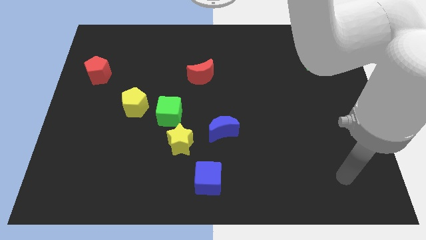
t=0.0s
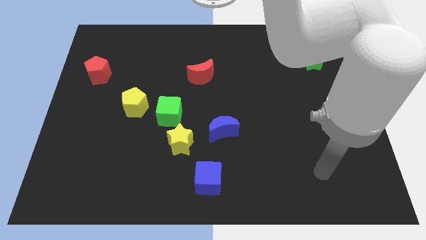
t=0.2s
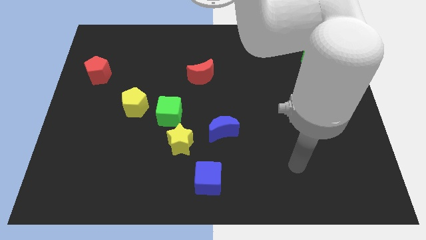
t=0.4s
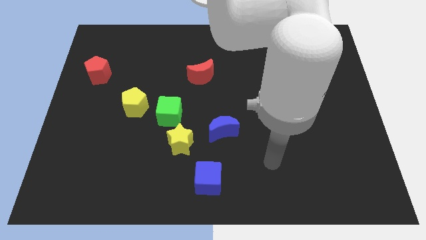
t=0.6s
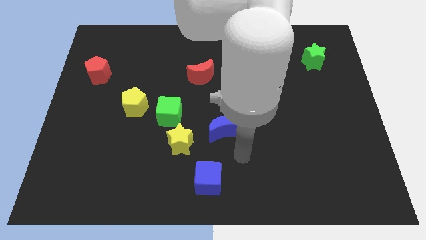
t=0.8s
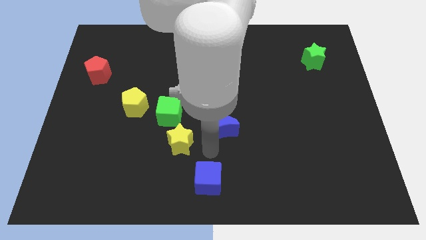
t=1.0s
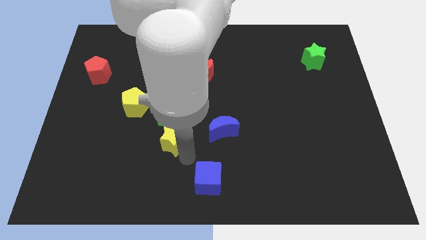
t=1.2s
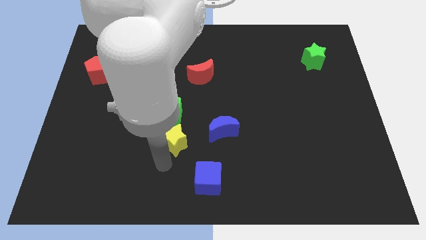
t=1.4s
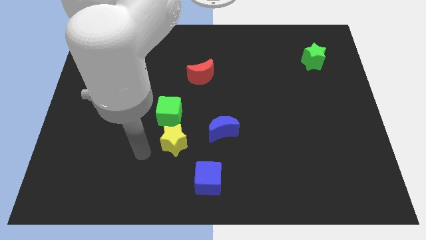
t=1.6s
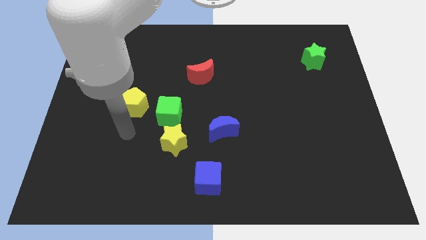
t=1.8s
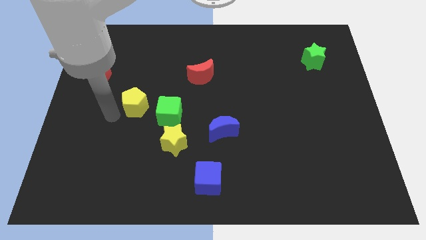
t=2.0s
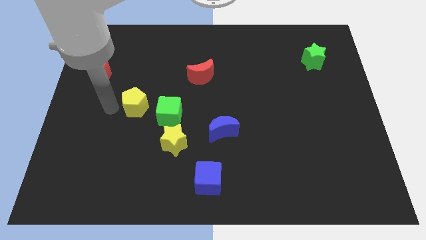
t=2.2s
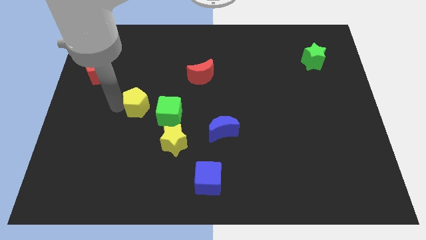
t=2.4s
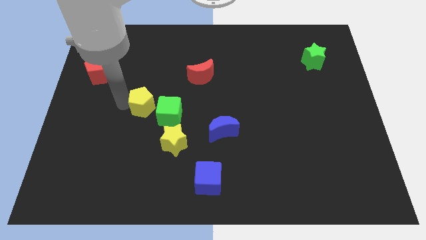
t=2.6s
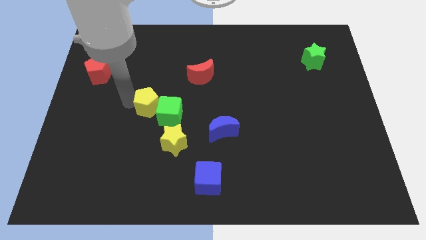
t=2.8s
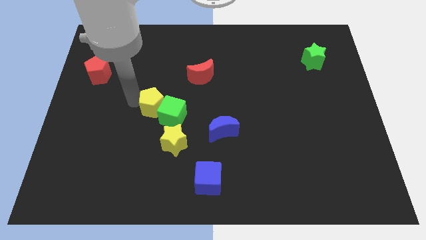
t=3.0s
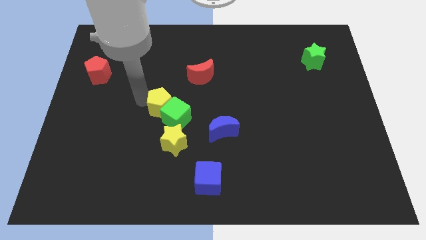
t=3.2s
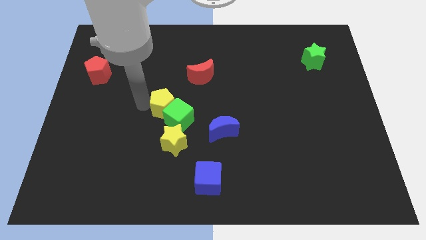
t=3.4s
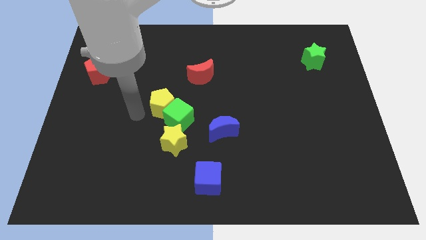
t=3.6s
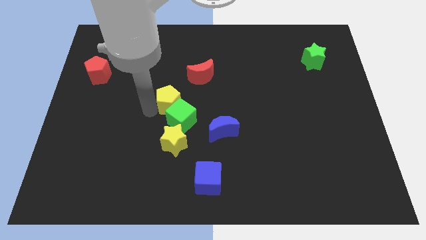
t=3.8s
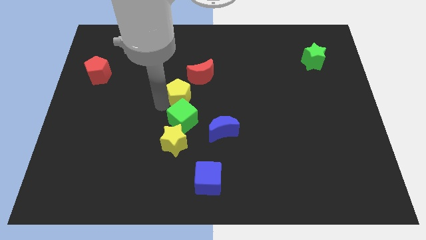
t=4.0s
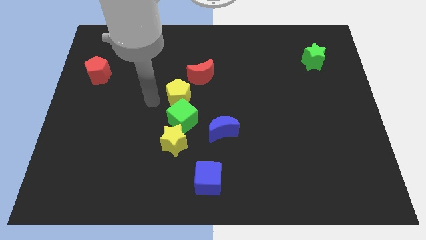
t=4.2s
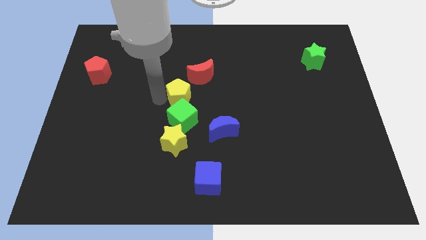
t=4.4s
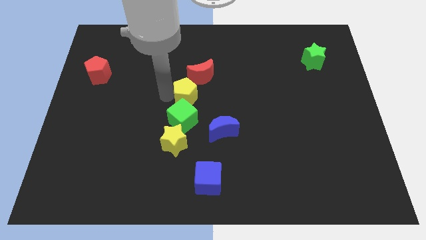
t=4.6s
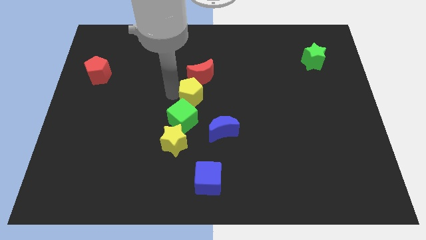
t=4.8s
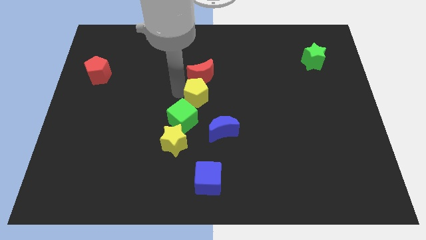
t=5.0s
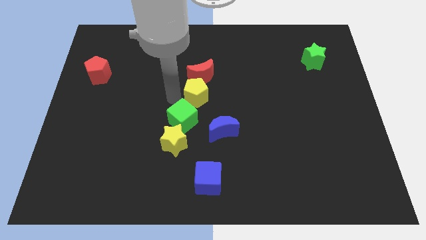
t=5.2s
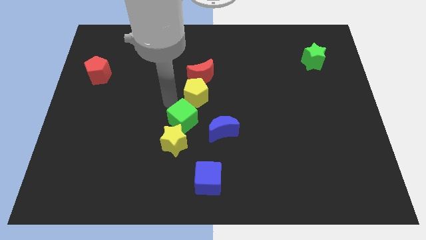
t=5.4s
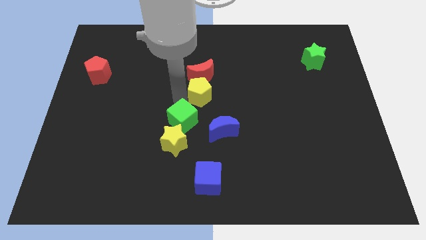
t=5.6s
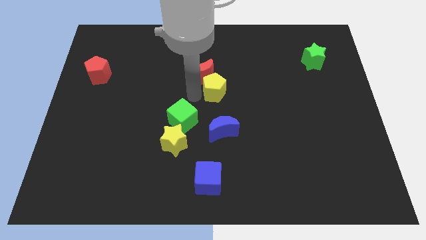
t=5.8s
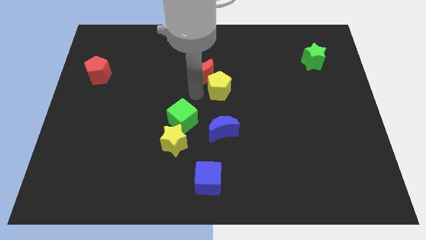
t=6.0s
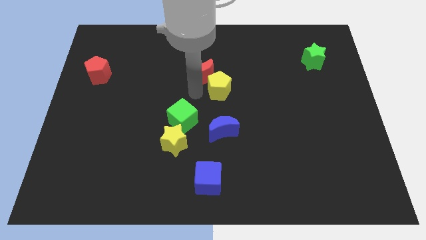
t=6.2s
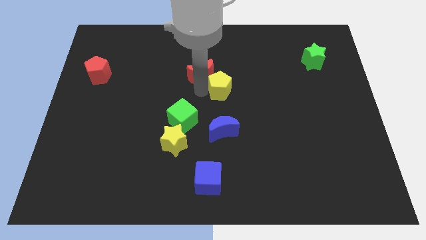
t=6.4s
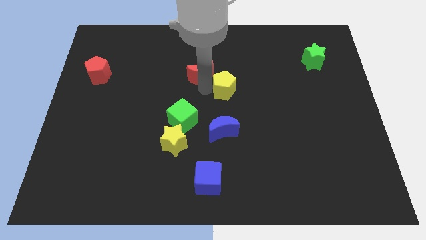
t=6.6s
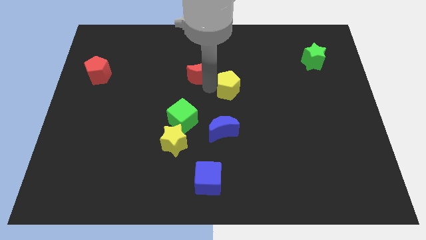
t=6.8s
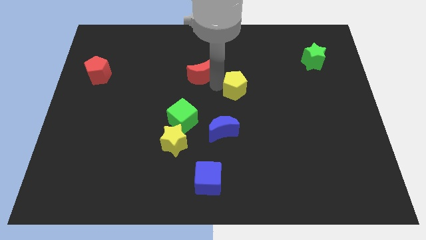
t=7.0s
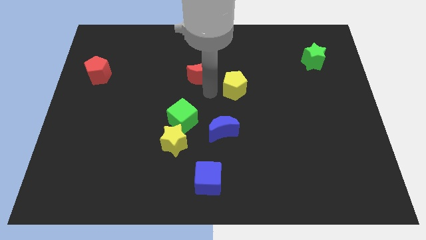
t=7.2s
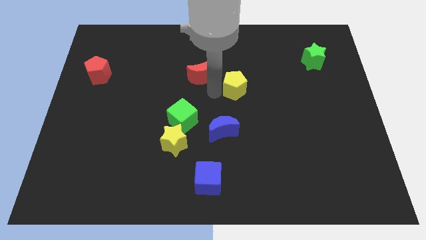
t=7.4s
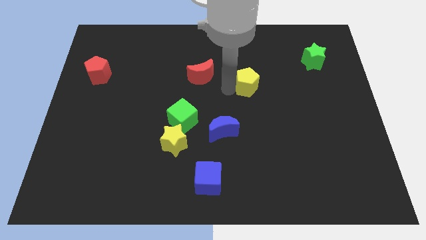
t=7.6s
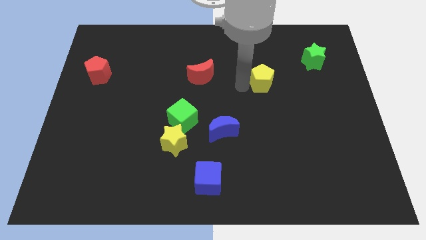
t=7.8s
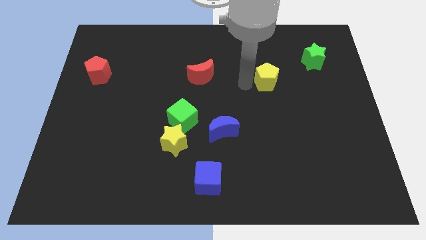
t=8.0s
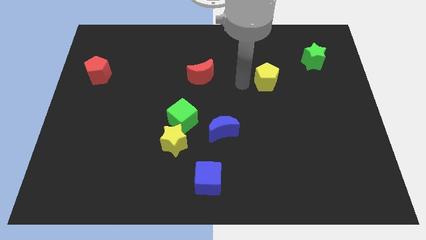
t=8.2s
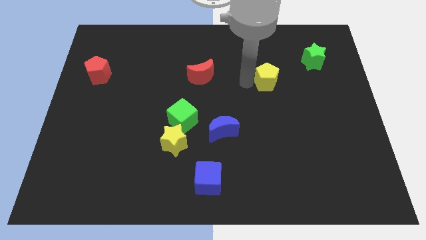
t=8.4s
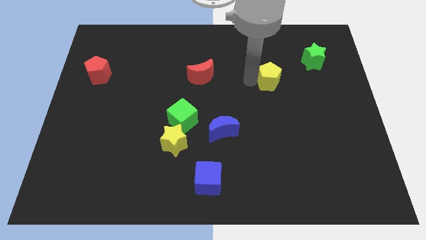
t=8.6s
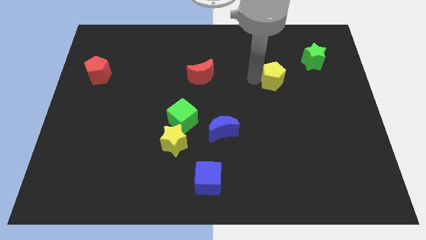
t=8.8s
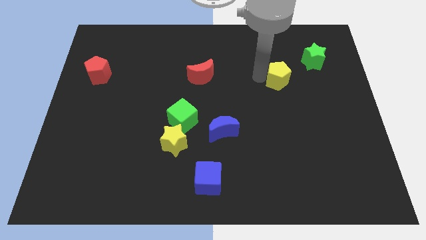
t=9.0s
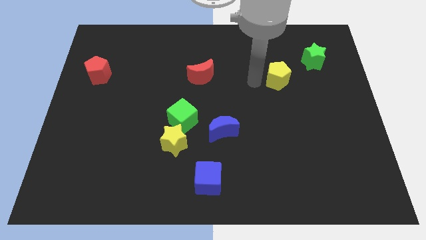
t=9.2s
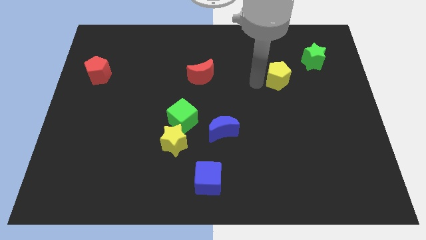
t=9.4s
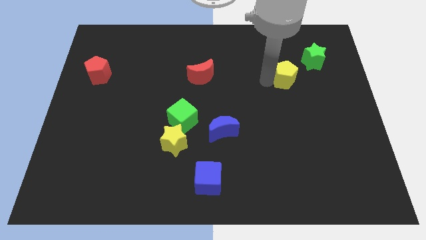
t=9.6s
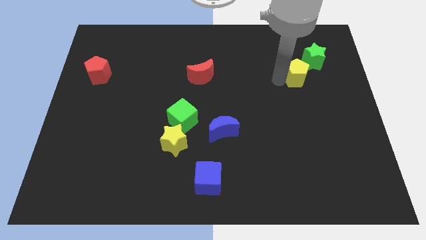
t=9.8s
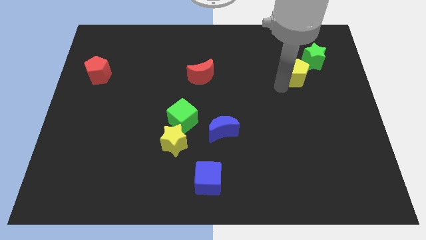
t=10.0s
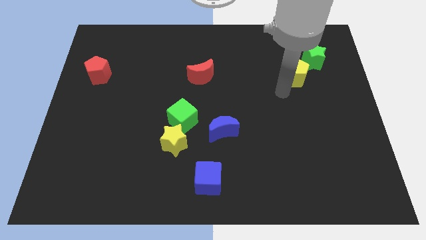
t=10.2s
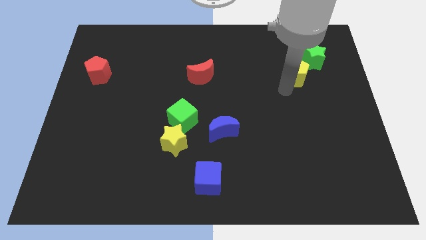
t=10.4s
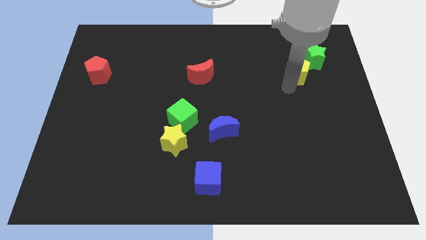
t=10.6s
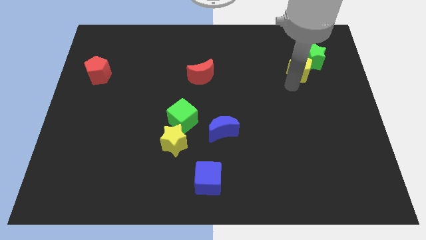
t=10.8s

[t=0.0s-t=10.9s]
move the yellow pentagon close to the green star

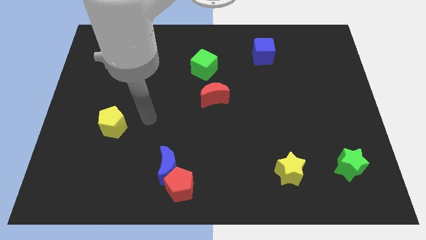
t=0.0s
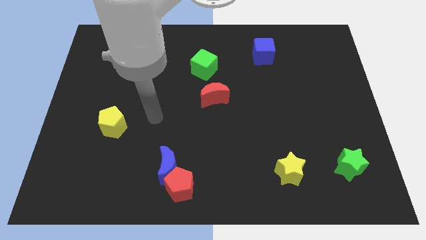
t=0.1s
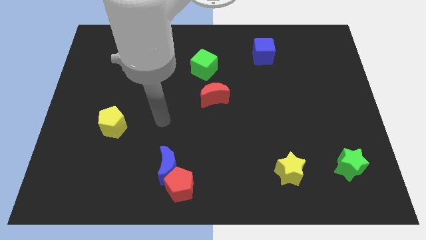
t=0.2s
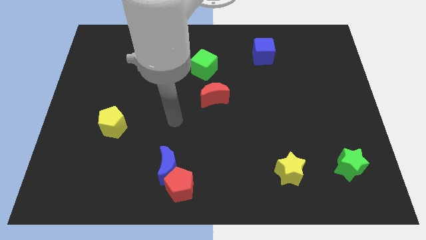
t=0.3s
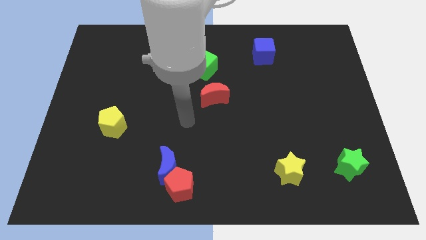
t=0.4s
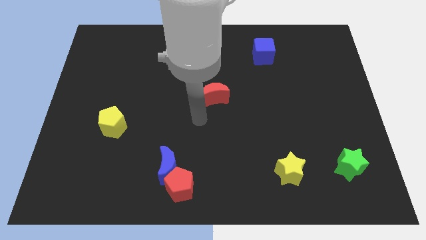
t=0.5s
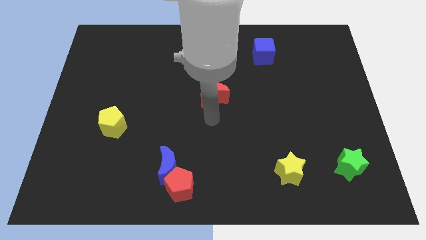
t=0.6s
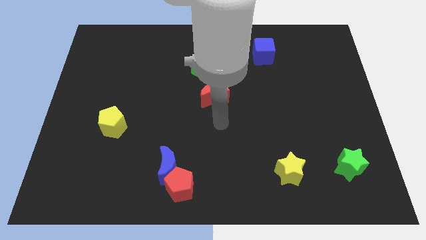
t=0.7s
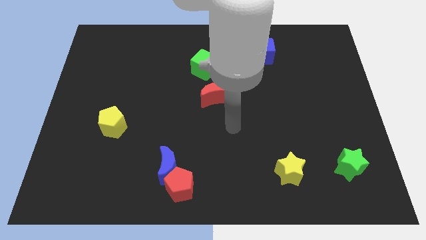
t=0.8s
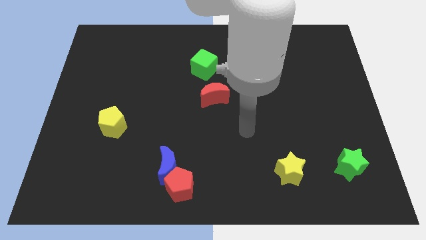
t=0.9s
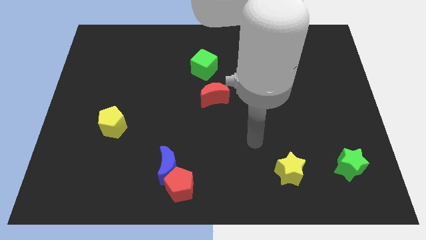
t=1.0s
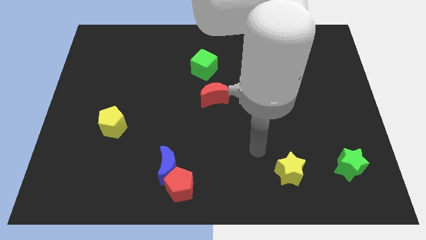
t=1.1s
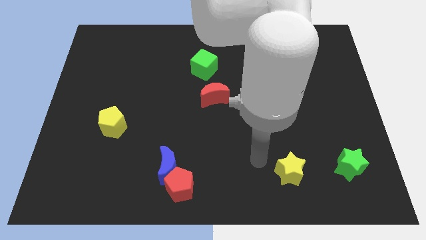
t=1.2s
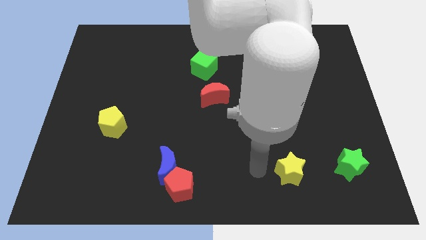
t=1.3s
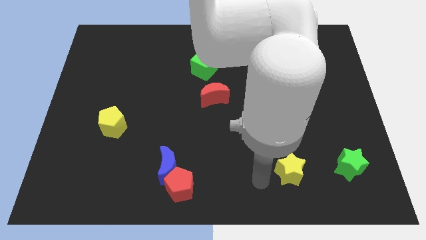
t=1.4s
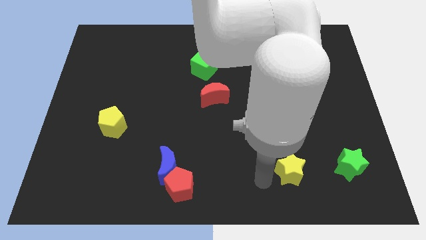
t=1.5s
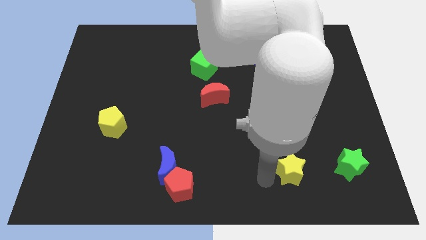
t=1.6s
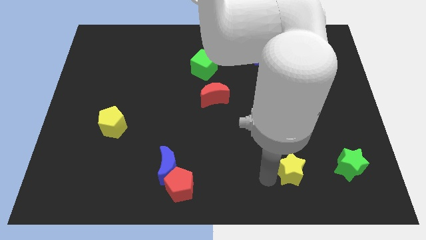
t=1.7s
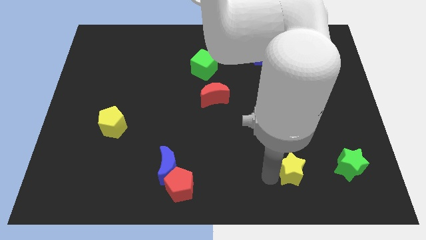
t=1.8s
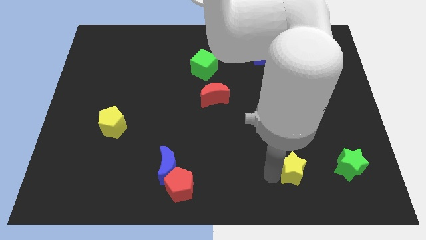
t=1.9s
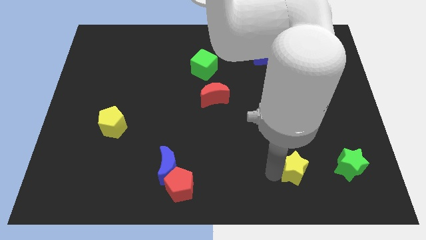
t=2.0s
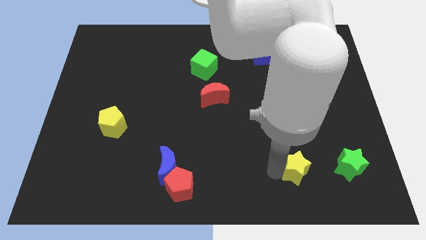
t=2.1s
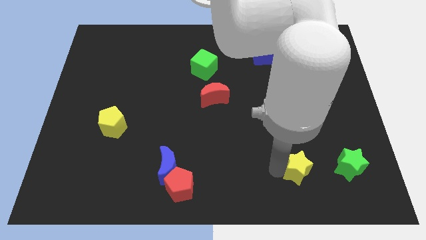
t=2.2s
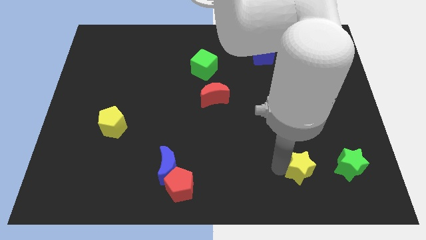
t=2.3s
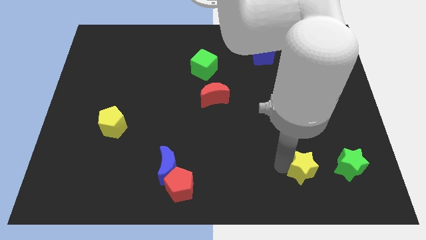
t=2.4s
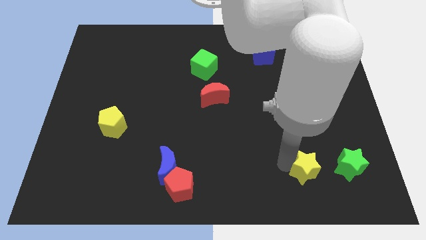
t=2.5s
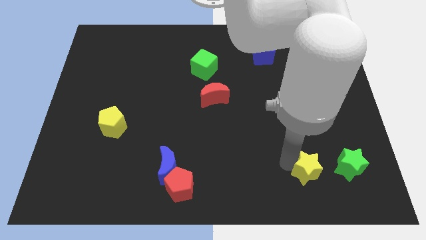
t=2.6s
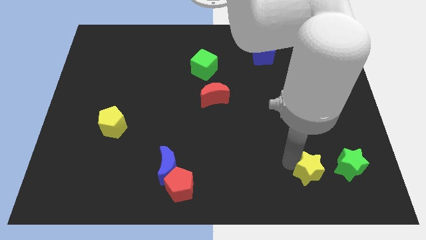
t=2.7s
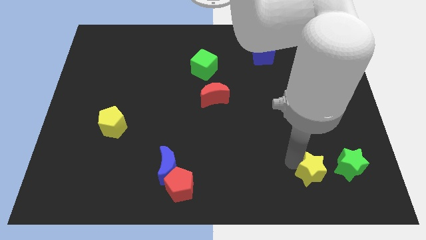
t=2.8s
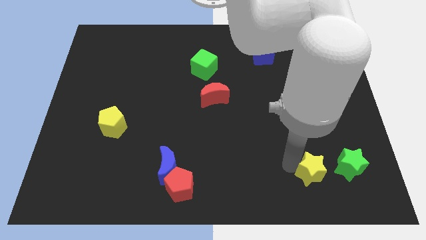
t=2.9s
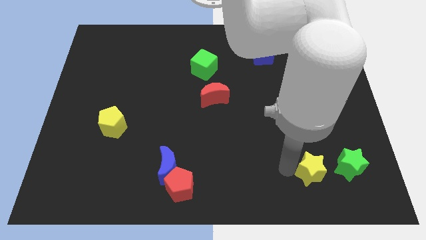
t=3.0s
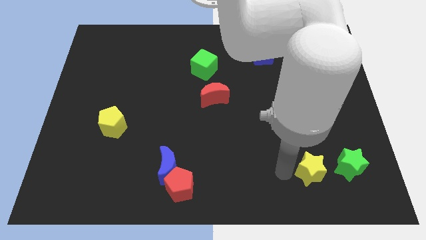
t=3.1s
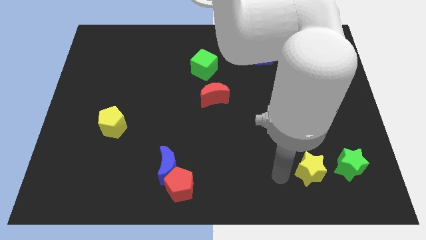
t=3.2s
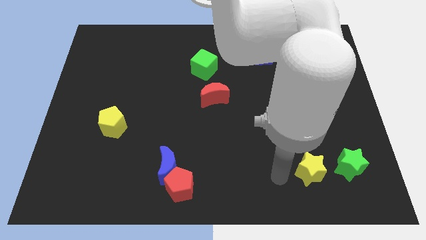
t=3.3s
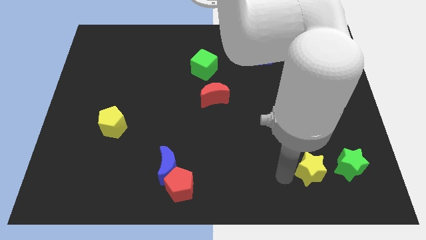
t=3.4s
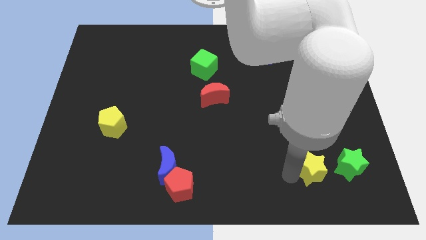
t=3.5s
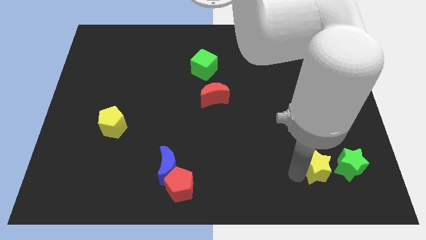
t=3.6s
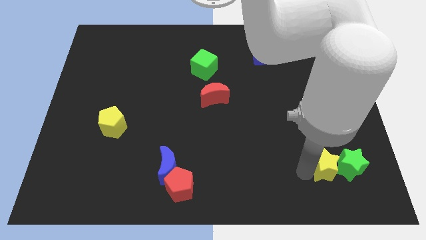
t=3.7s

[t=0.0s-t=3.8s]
move the yellow star close to the green star
